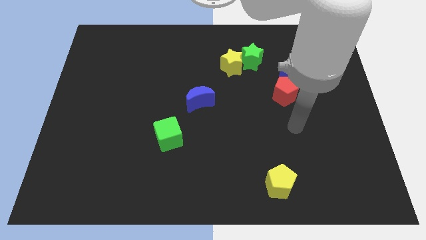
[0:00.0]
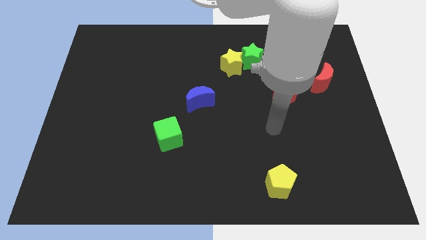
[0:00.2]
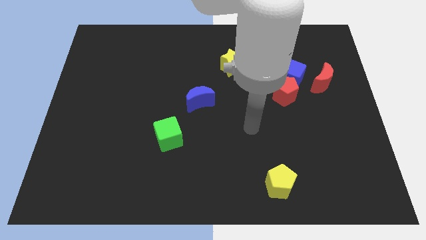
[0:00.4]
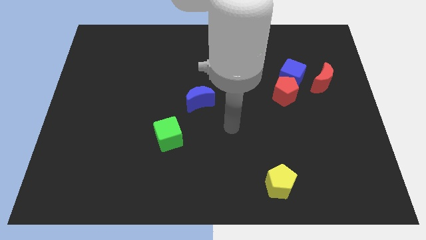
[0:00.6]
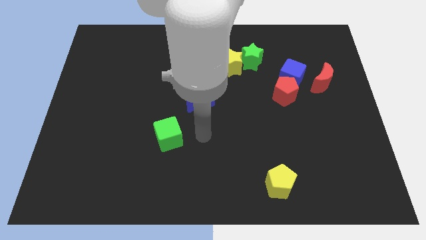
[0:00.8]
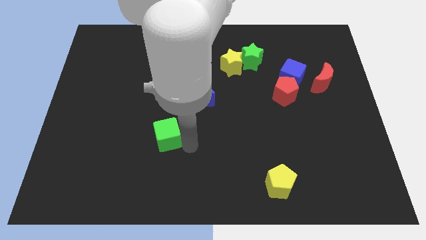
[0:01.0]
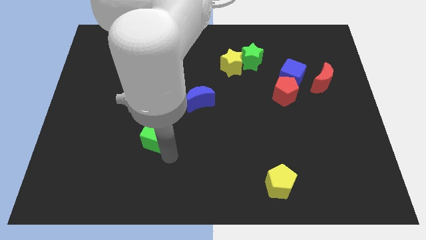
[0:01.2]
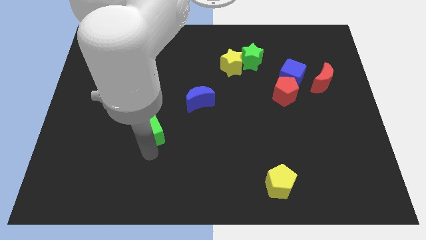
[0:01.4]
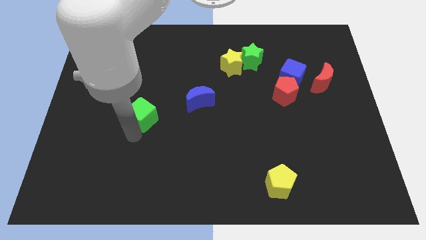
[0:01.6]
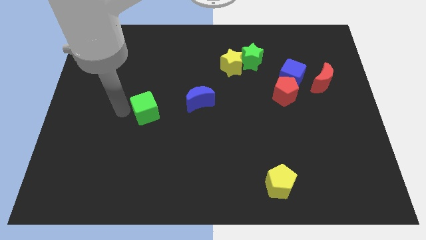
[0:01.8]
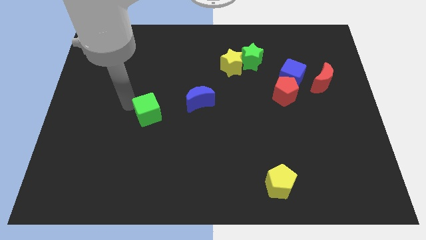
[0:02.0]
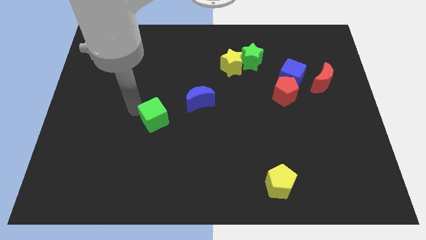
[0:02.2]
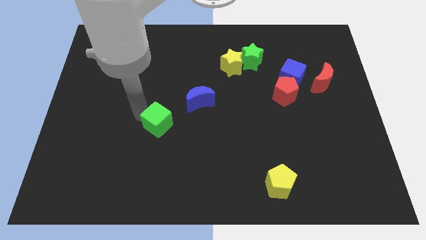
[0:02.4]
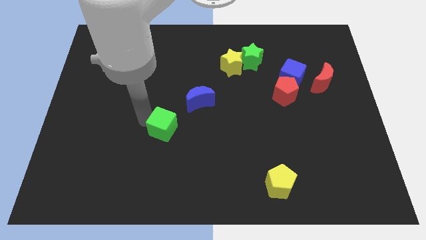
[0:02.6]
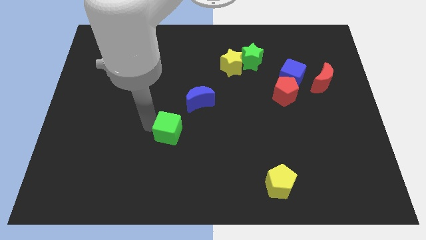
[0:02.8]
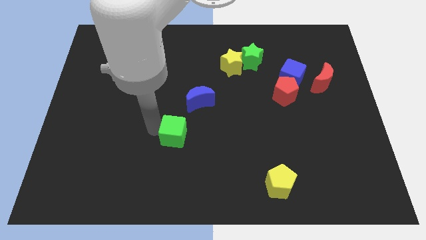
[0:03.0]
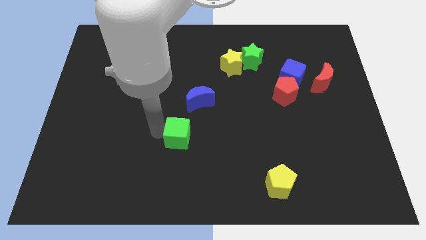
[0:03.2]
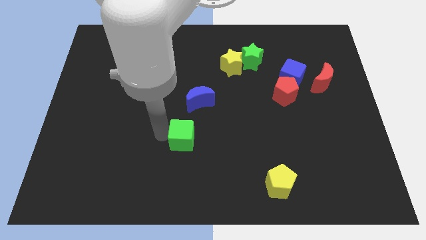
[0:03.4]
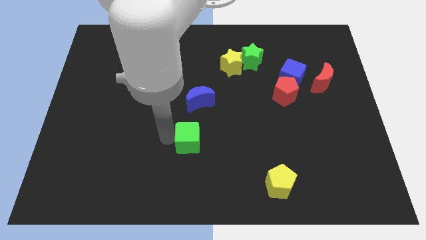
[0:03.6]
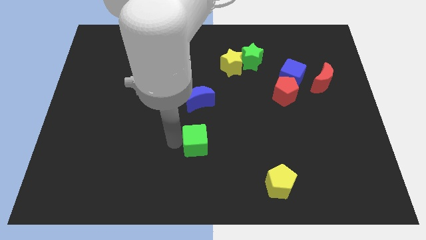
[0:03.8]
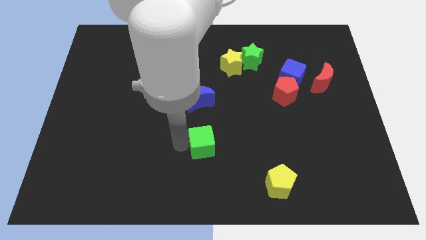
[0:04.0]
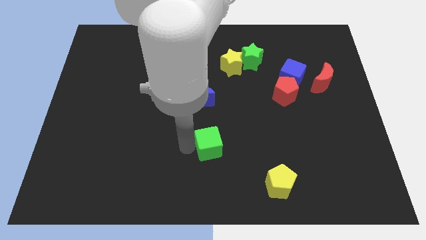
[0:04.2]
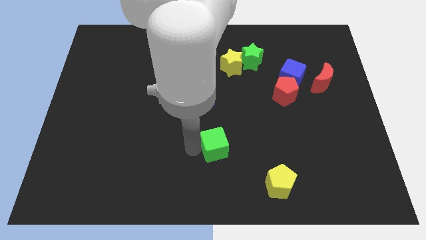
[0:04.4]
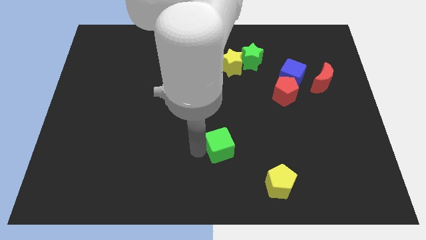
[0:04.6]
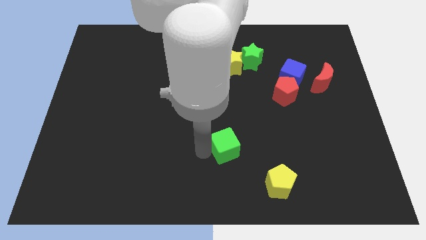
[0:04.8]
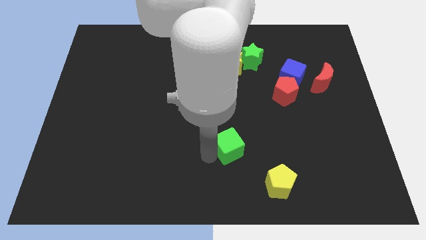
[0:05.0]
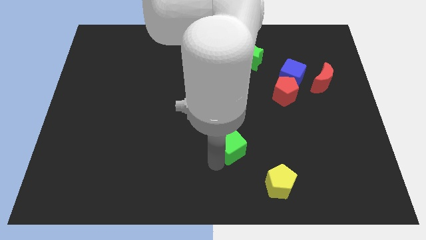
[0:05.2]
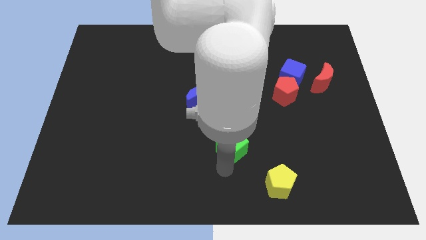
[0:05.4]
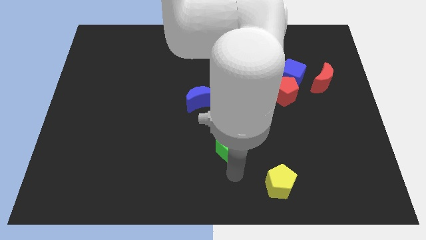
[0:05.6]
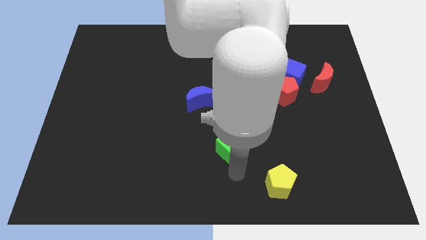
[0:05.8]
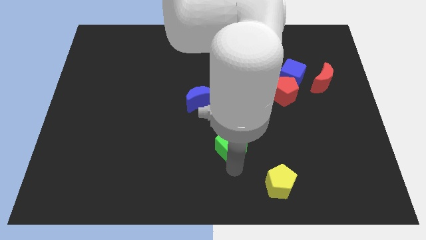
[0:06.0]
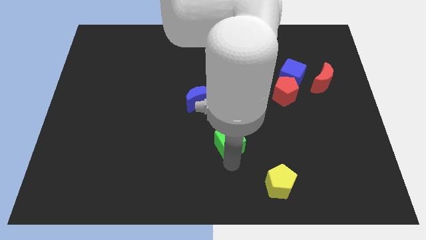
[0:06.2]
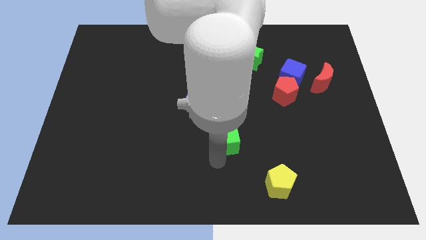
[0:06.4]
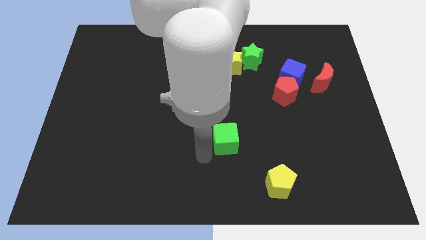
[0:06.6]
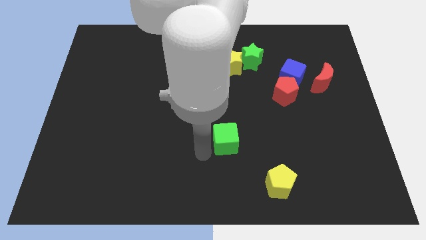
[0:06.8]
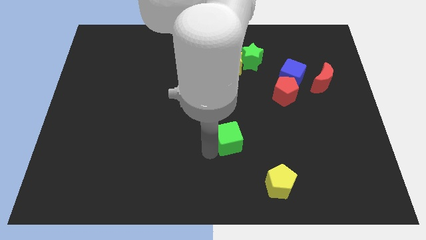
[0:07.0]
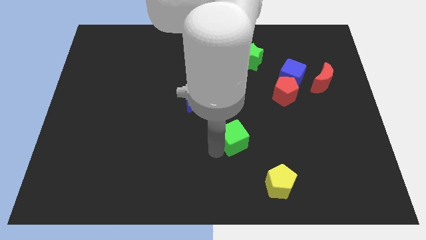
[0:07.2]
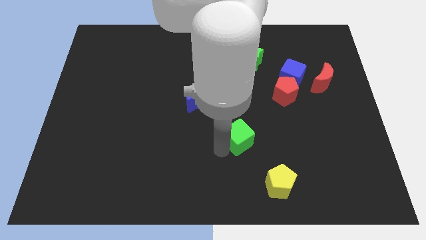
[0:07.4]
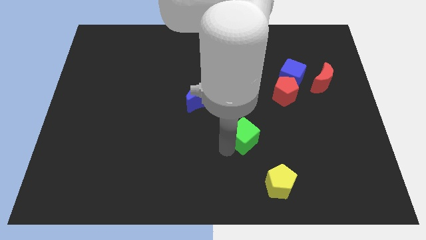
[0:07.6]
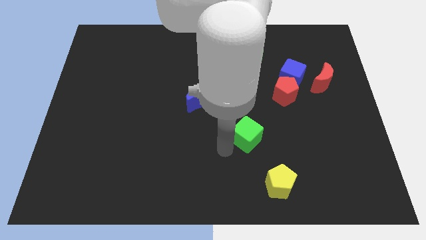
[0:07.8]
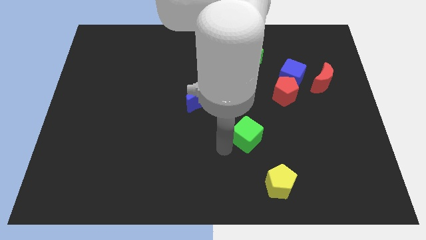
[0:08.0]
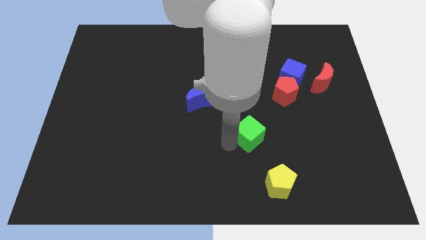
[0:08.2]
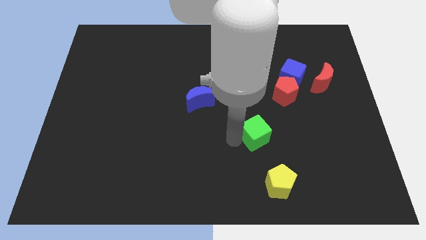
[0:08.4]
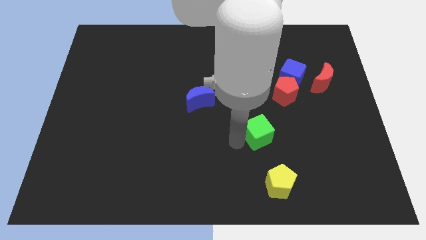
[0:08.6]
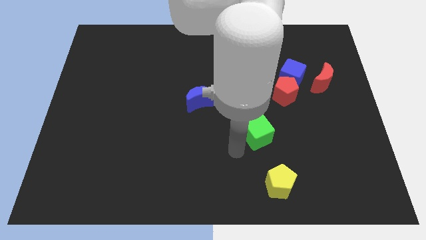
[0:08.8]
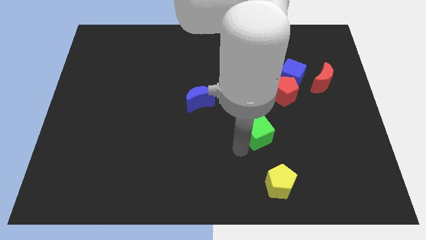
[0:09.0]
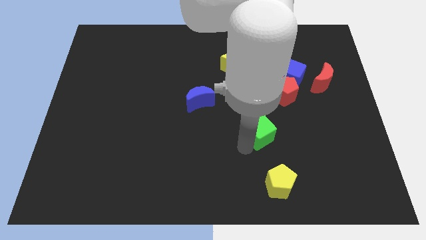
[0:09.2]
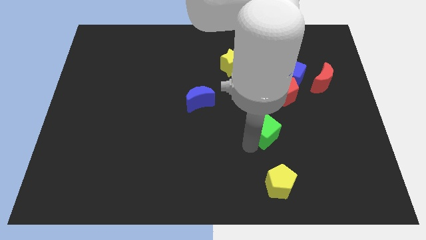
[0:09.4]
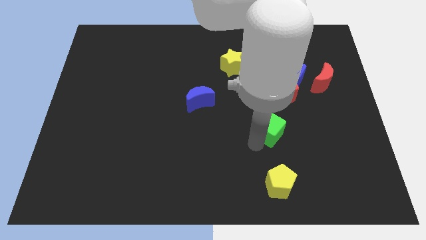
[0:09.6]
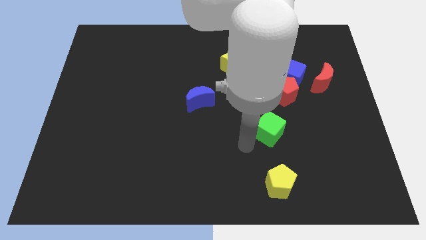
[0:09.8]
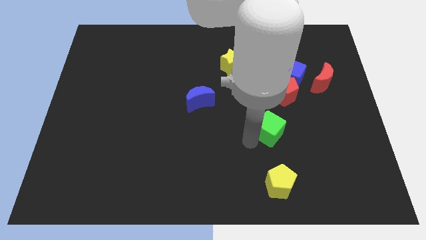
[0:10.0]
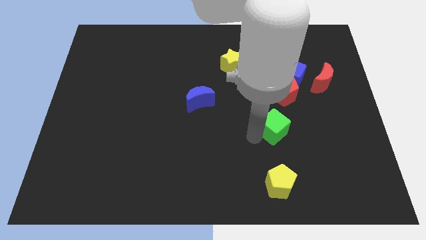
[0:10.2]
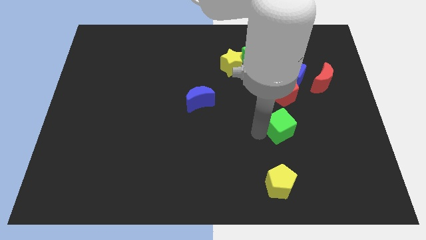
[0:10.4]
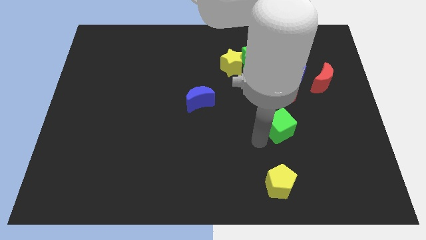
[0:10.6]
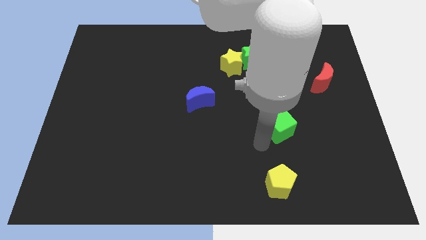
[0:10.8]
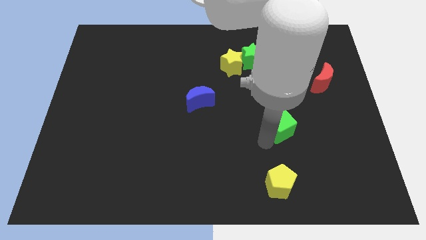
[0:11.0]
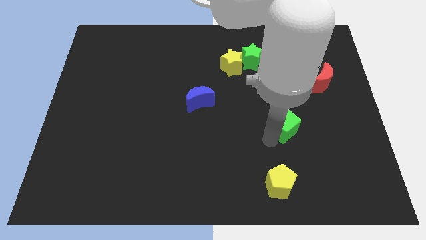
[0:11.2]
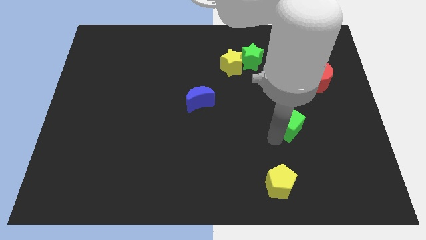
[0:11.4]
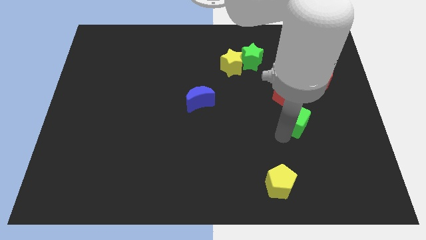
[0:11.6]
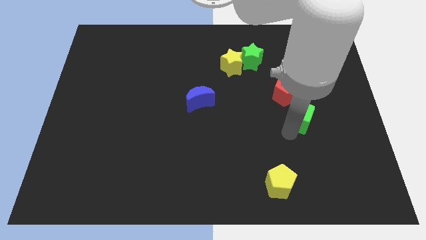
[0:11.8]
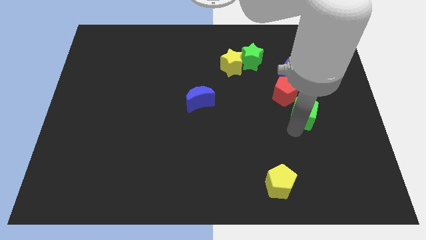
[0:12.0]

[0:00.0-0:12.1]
push the green cube diagonally down and to the left of the red moon
